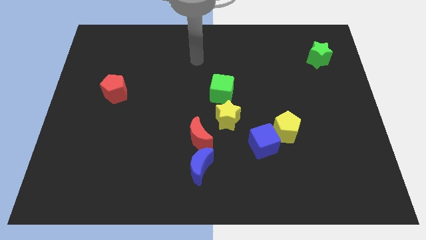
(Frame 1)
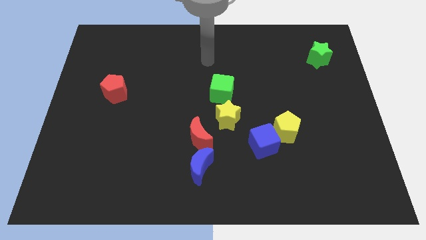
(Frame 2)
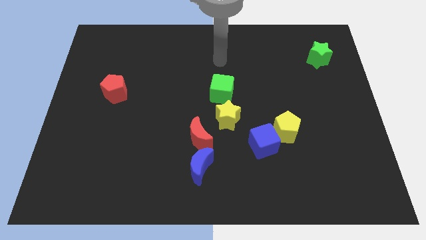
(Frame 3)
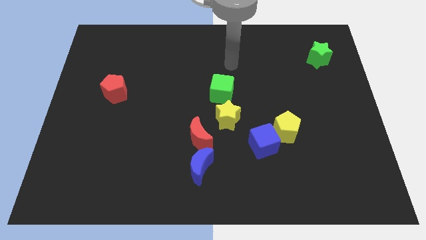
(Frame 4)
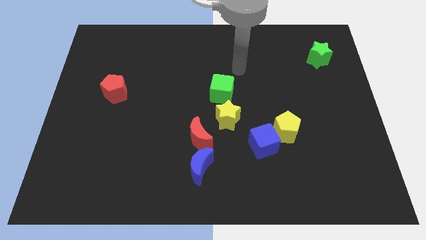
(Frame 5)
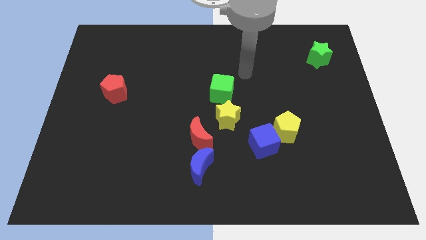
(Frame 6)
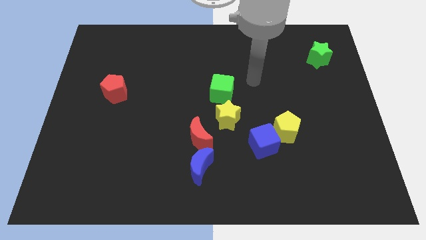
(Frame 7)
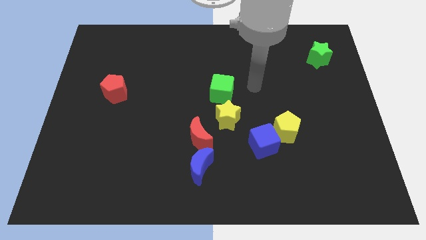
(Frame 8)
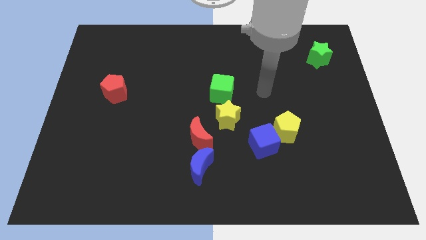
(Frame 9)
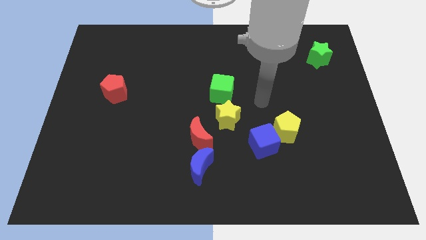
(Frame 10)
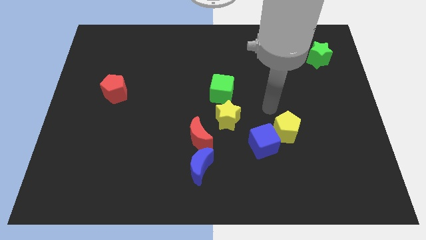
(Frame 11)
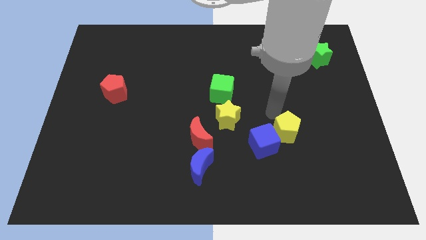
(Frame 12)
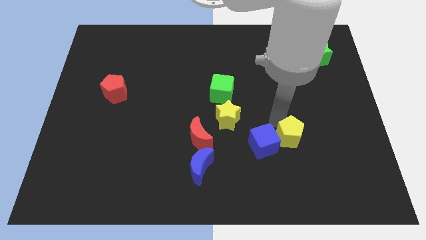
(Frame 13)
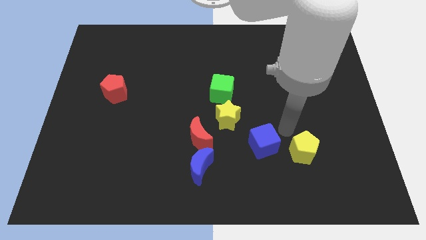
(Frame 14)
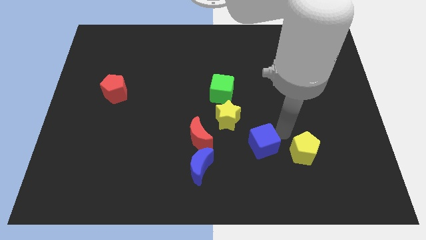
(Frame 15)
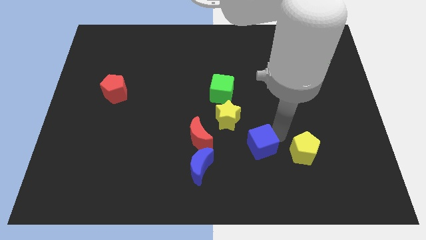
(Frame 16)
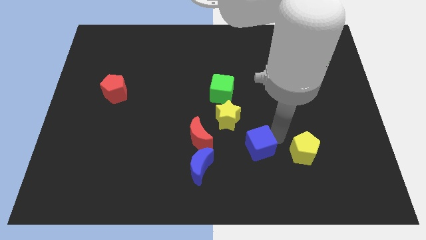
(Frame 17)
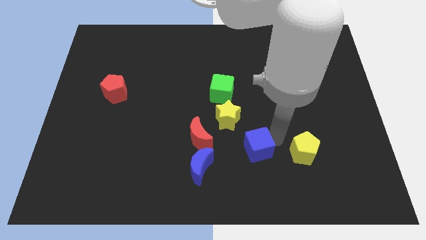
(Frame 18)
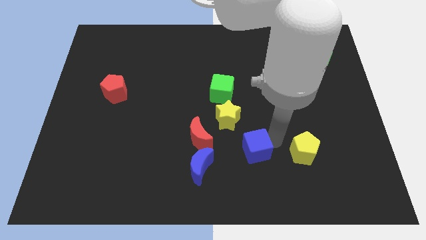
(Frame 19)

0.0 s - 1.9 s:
separate the blue cube from the yellow pentagon

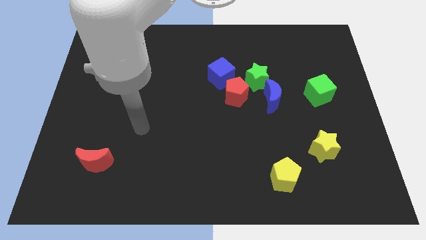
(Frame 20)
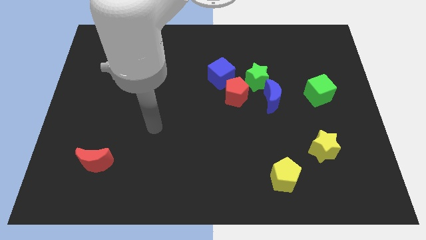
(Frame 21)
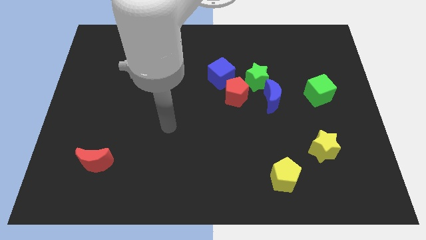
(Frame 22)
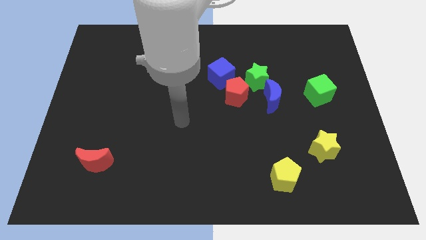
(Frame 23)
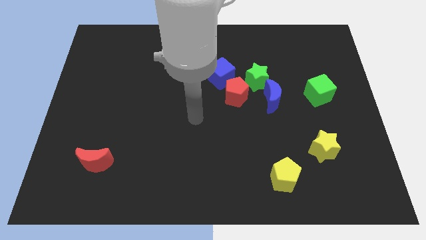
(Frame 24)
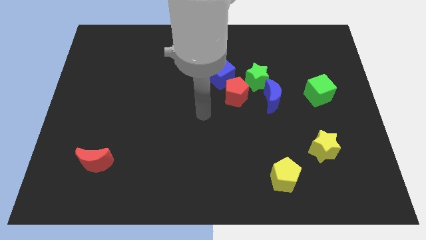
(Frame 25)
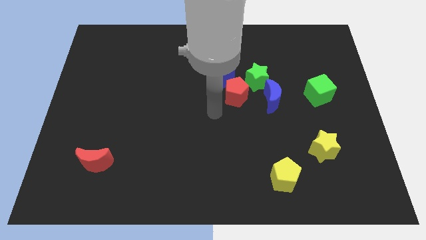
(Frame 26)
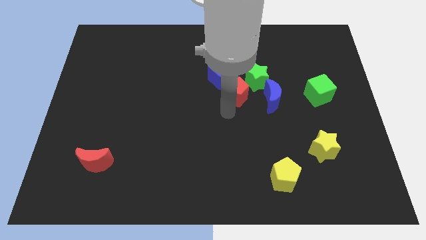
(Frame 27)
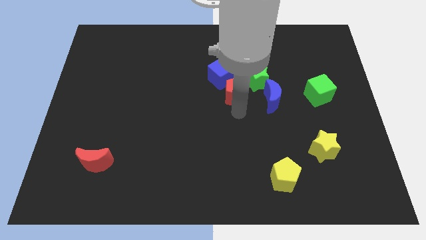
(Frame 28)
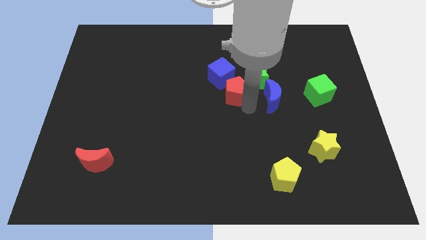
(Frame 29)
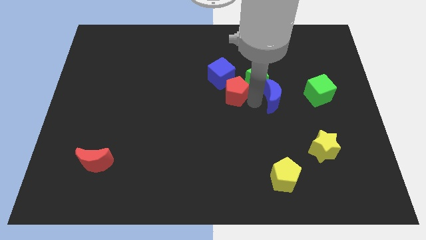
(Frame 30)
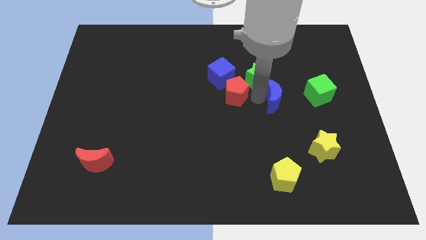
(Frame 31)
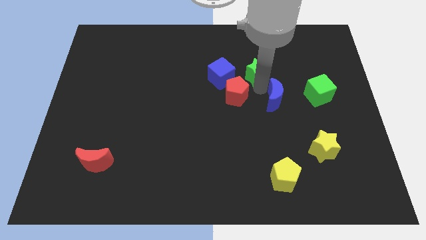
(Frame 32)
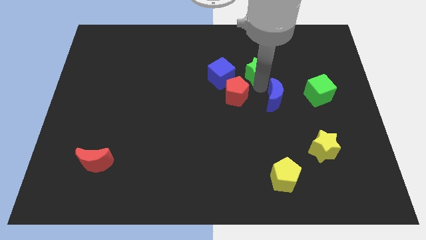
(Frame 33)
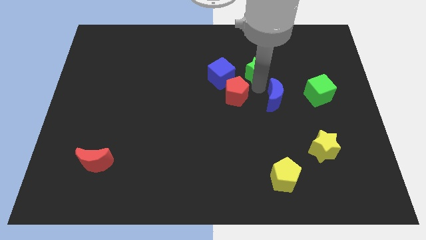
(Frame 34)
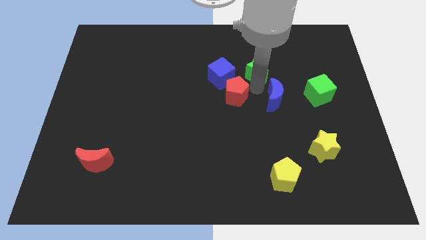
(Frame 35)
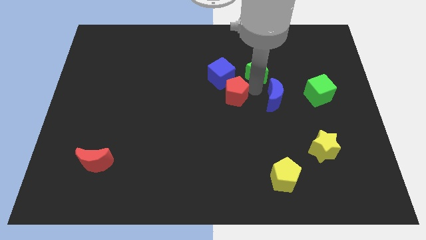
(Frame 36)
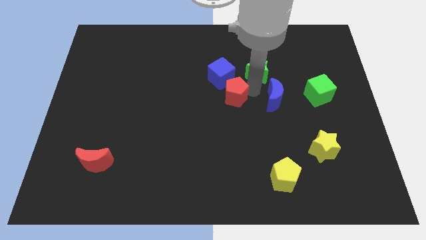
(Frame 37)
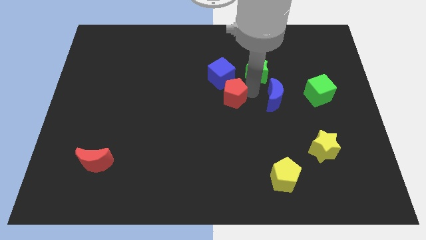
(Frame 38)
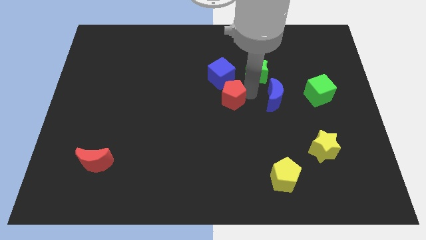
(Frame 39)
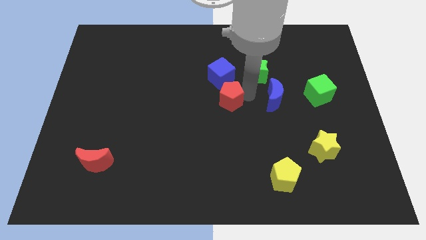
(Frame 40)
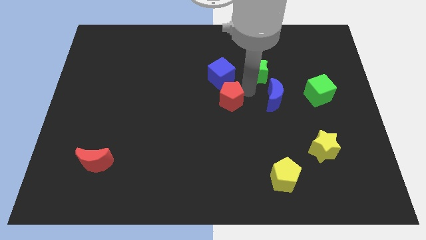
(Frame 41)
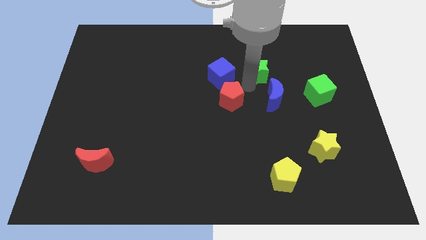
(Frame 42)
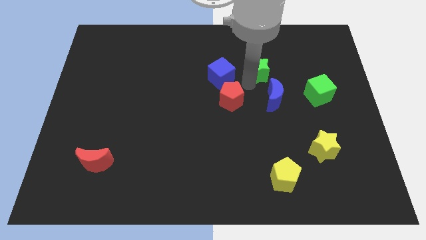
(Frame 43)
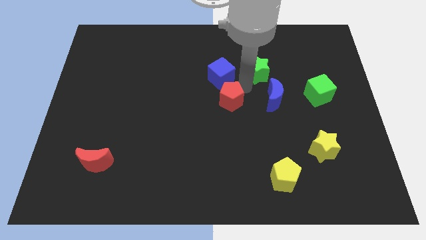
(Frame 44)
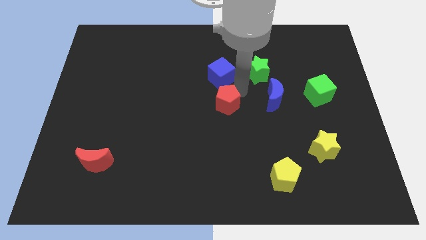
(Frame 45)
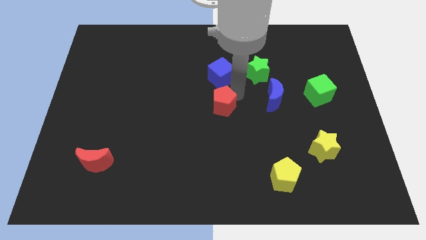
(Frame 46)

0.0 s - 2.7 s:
separate the red pentagon from the blue cube, green star, and blue moon

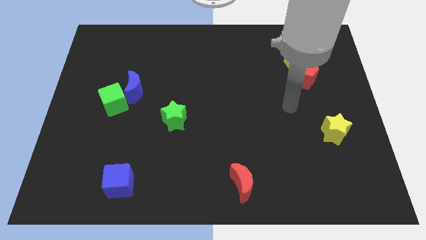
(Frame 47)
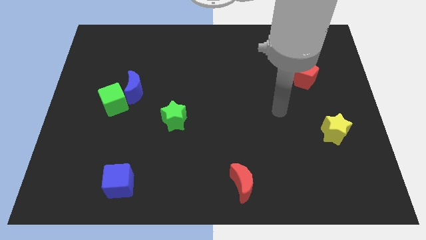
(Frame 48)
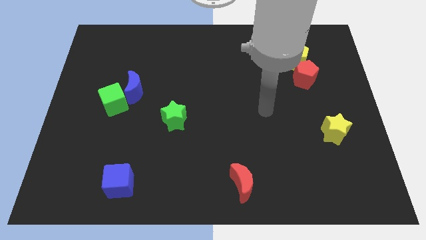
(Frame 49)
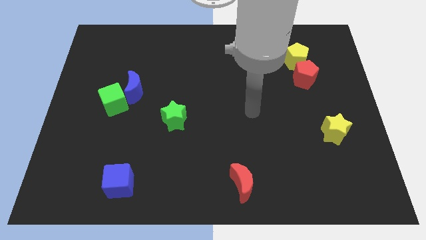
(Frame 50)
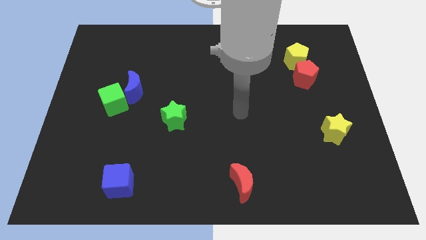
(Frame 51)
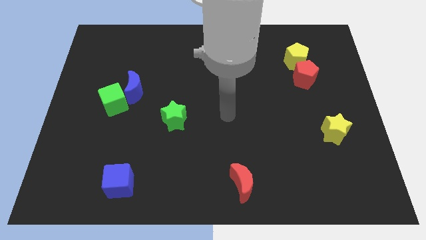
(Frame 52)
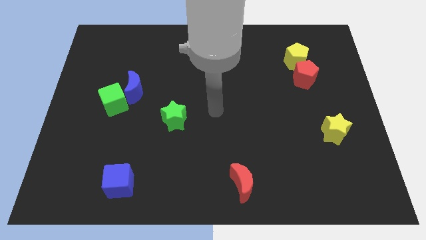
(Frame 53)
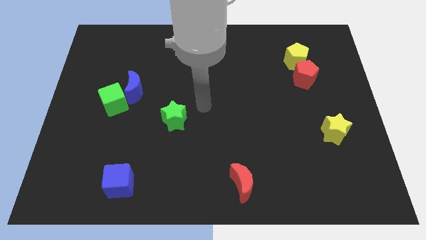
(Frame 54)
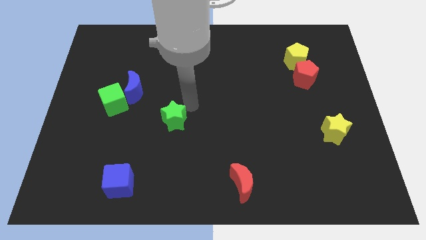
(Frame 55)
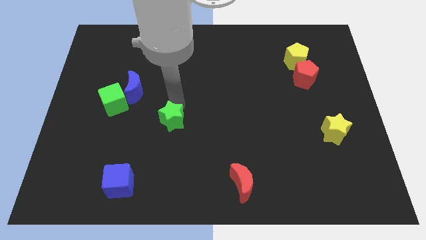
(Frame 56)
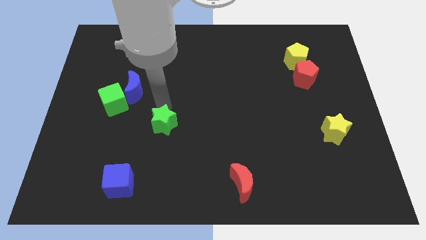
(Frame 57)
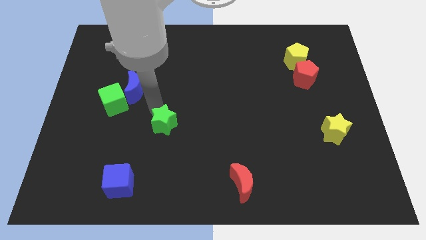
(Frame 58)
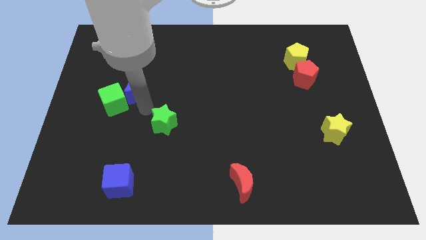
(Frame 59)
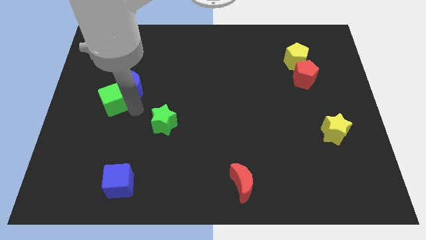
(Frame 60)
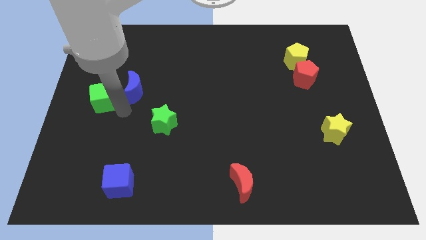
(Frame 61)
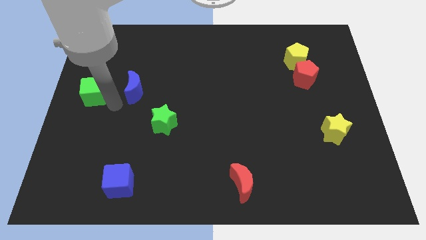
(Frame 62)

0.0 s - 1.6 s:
pull the blue moon apart from the green cube

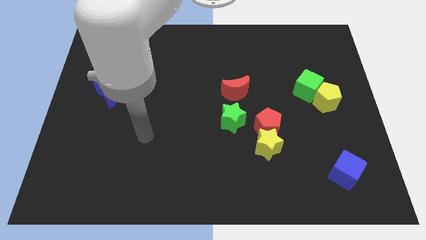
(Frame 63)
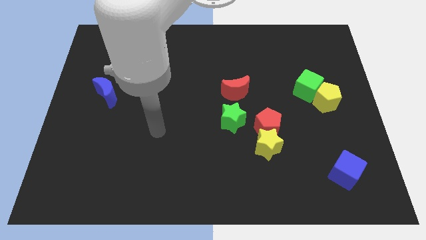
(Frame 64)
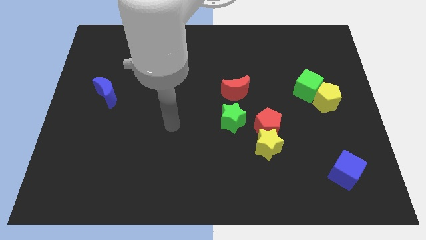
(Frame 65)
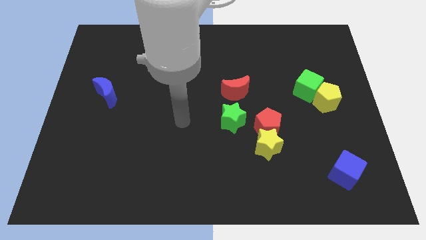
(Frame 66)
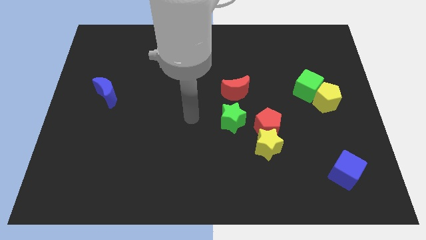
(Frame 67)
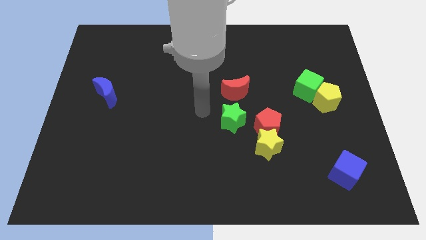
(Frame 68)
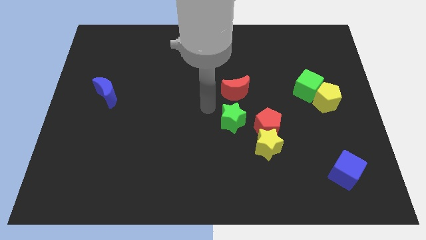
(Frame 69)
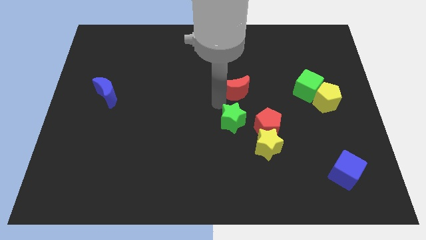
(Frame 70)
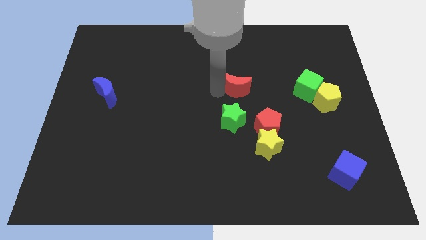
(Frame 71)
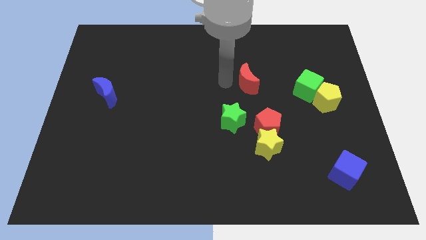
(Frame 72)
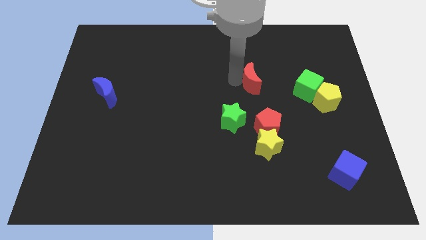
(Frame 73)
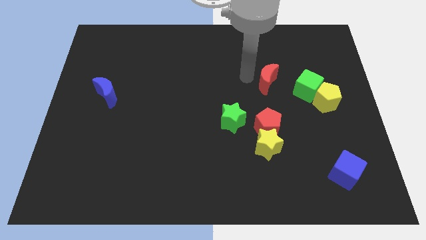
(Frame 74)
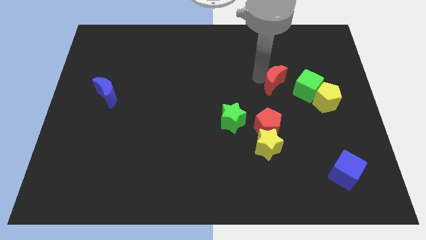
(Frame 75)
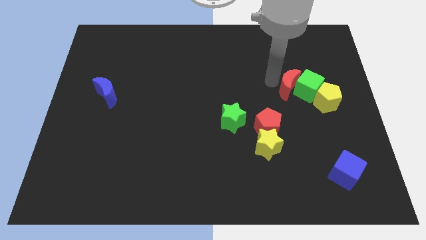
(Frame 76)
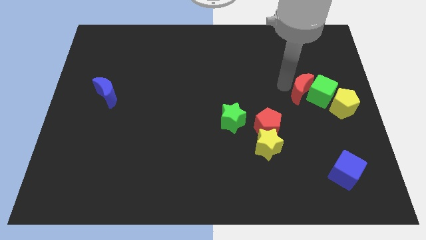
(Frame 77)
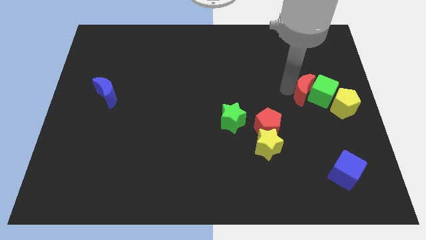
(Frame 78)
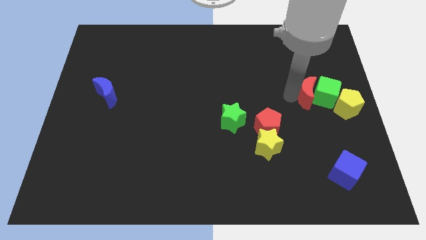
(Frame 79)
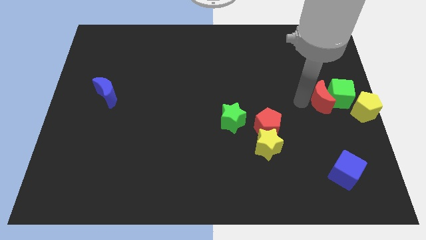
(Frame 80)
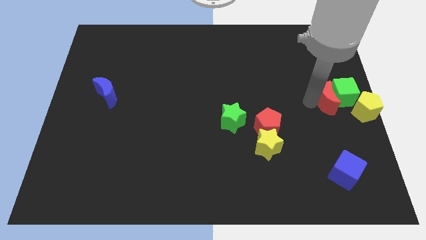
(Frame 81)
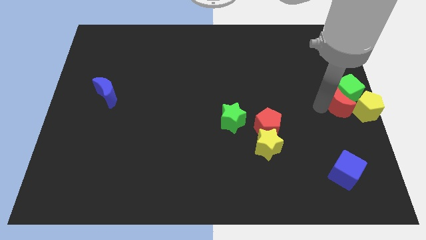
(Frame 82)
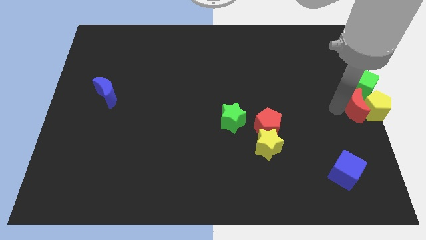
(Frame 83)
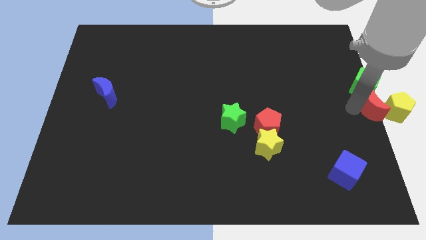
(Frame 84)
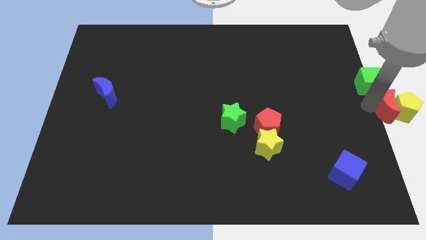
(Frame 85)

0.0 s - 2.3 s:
move the green cube away from the yellow pentagon

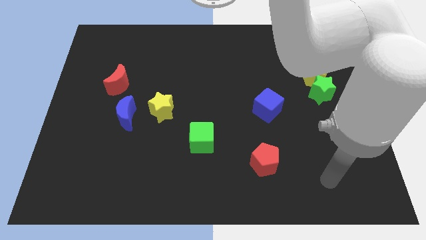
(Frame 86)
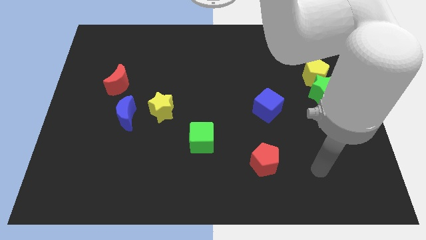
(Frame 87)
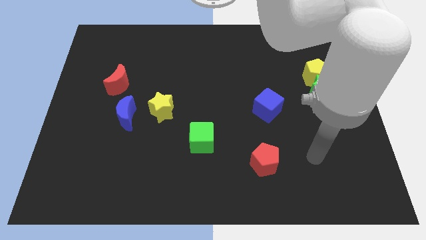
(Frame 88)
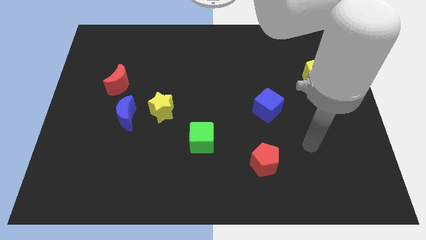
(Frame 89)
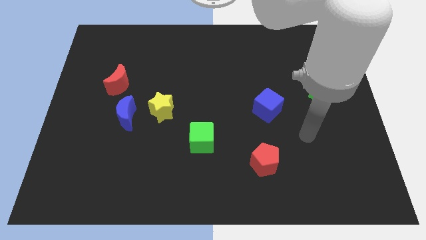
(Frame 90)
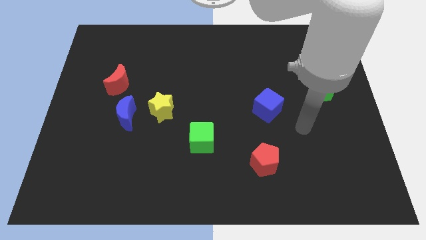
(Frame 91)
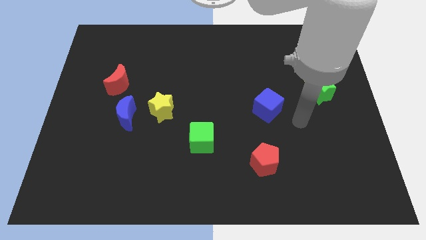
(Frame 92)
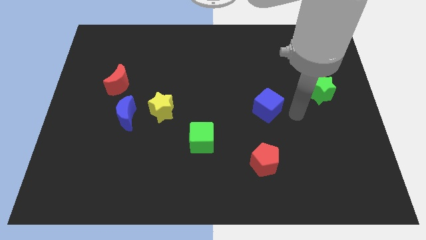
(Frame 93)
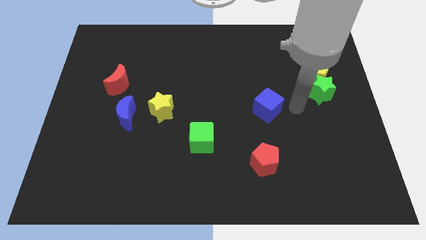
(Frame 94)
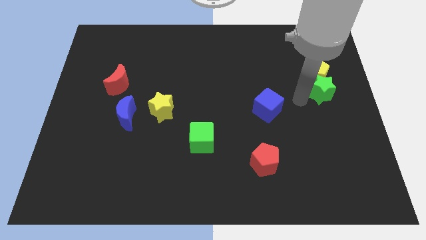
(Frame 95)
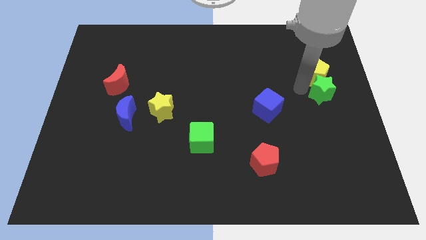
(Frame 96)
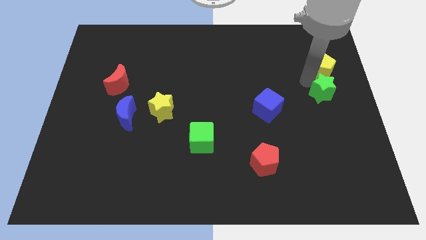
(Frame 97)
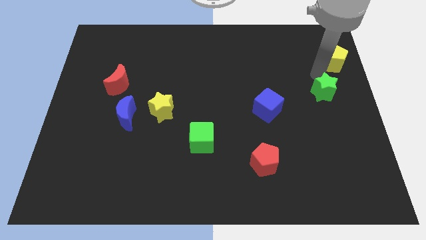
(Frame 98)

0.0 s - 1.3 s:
move the green star away from the yellow pentagon
